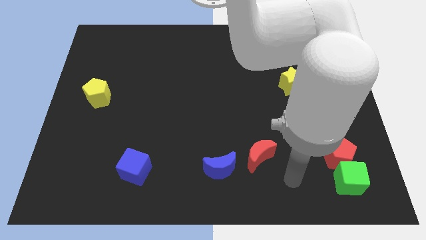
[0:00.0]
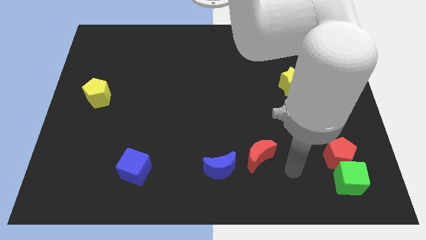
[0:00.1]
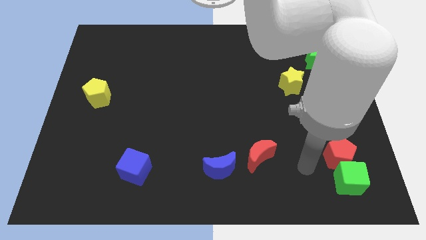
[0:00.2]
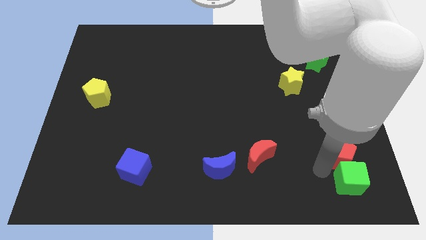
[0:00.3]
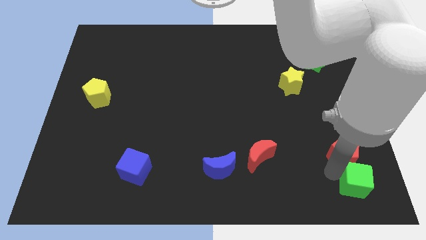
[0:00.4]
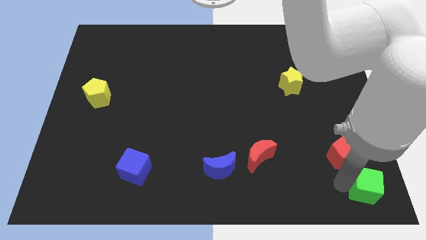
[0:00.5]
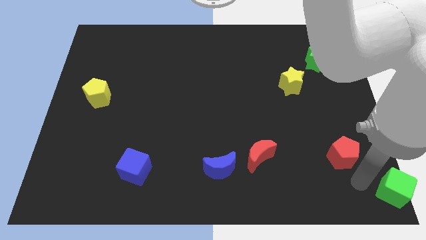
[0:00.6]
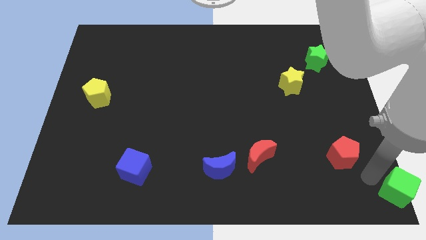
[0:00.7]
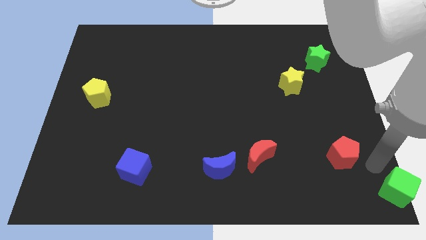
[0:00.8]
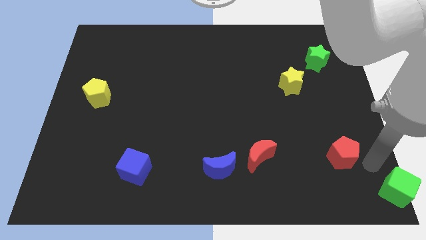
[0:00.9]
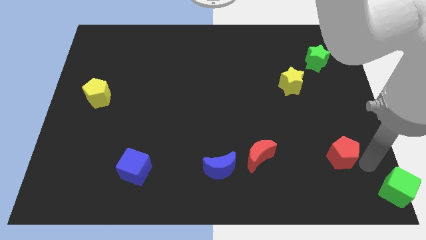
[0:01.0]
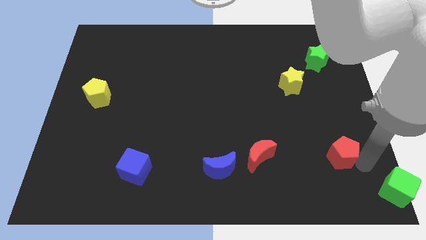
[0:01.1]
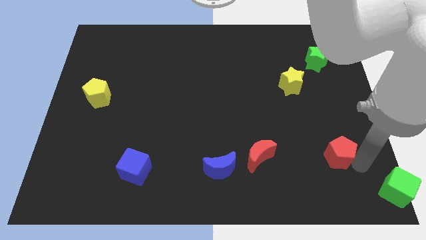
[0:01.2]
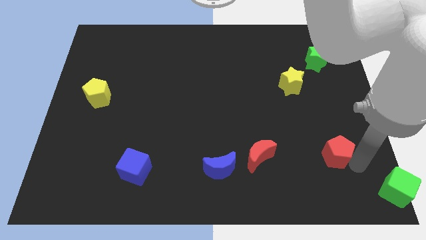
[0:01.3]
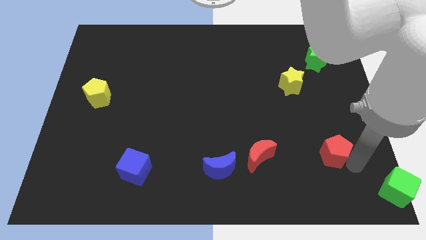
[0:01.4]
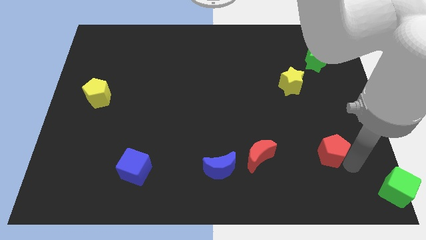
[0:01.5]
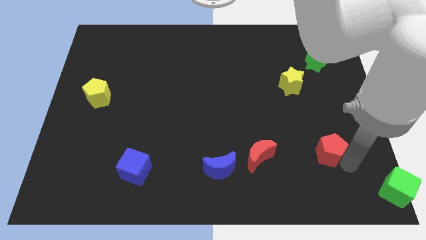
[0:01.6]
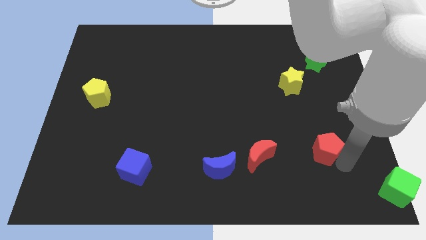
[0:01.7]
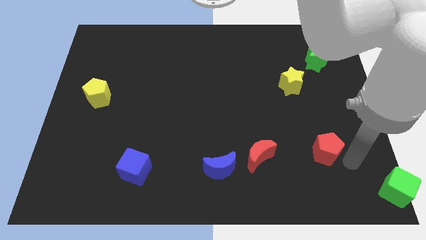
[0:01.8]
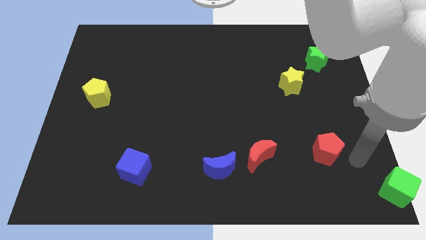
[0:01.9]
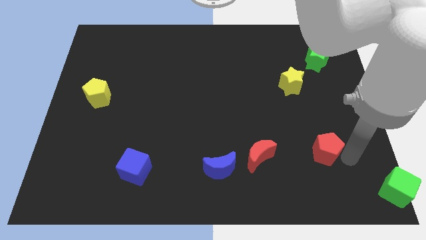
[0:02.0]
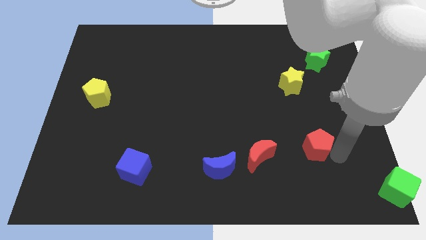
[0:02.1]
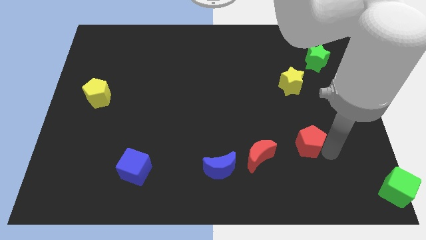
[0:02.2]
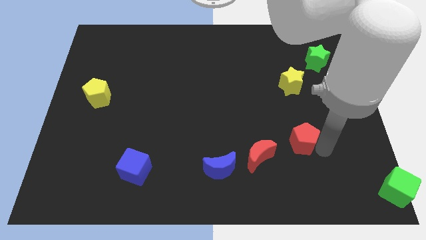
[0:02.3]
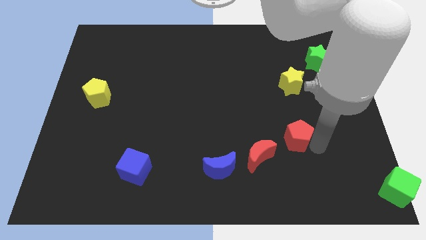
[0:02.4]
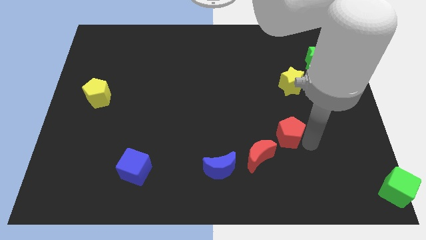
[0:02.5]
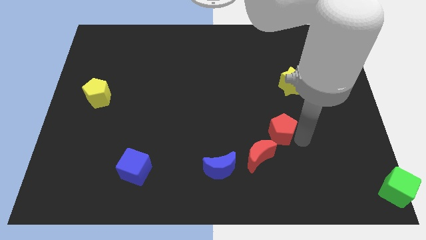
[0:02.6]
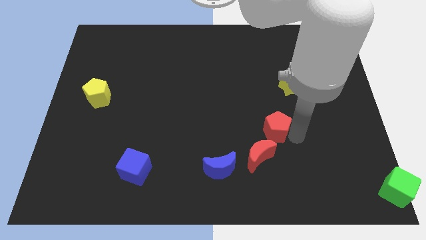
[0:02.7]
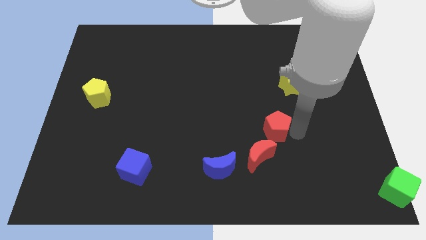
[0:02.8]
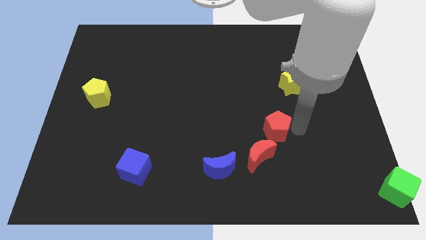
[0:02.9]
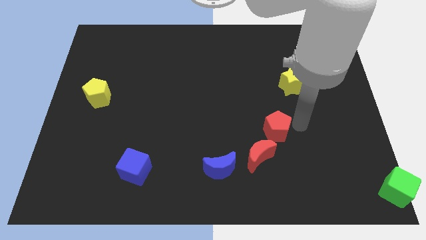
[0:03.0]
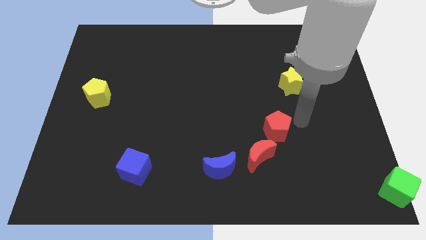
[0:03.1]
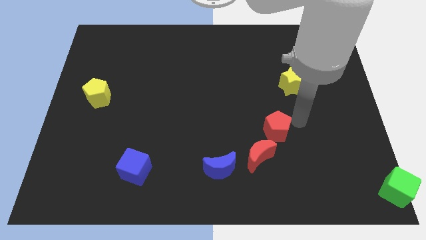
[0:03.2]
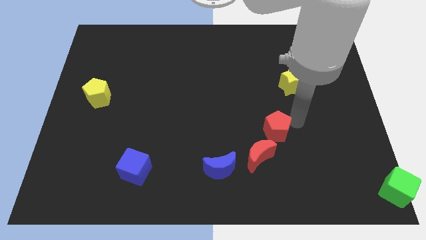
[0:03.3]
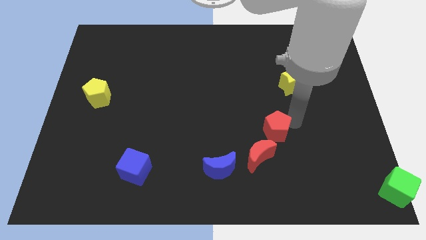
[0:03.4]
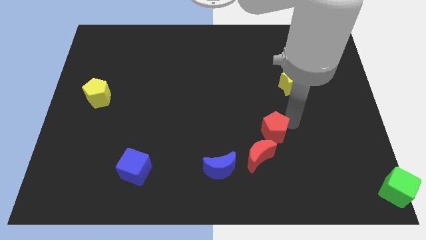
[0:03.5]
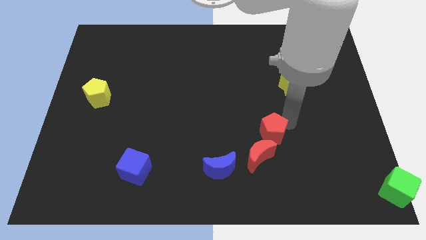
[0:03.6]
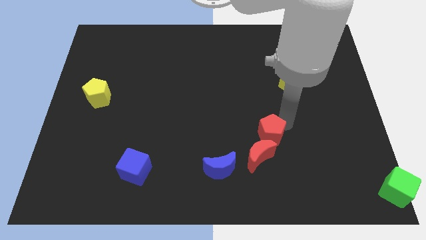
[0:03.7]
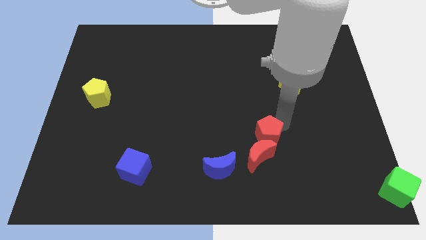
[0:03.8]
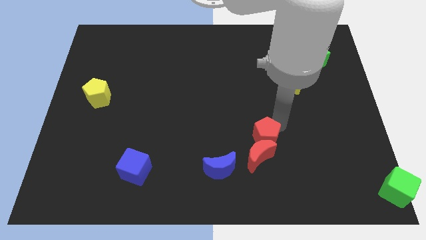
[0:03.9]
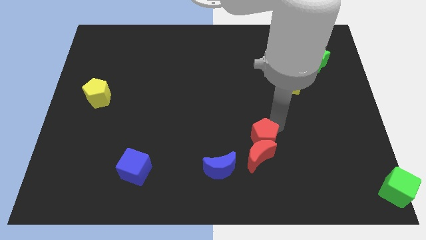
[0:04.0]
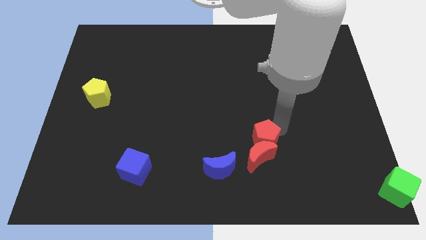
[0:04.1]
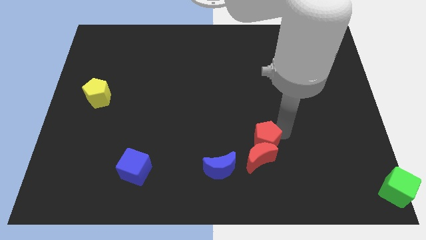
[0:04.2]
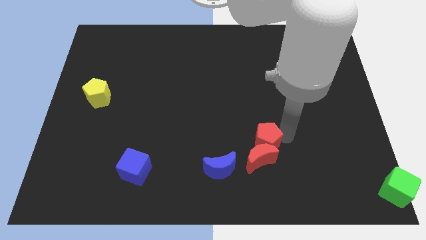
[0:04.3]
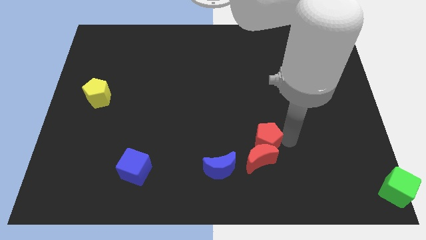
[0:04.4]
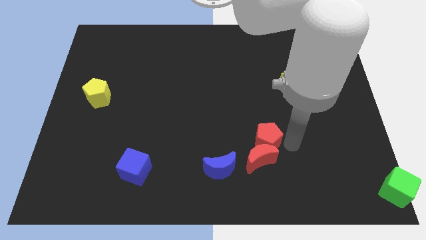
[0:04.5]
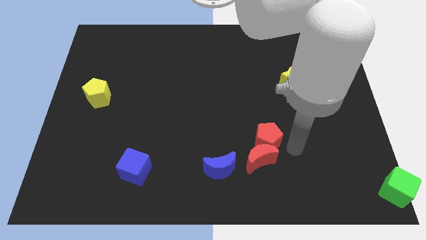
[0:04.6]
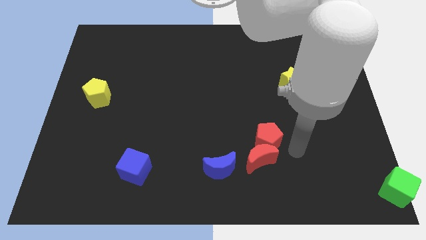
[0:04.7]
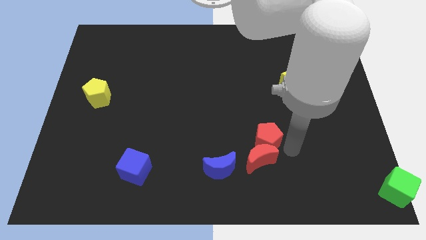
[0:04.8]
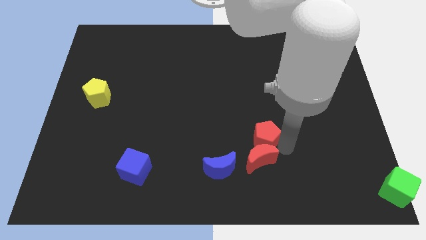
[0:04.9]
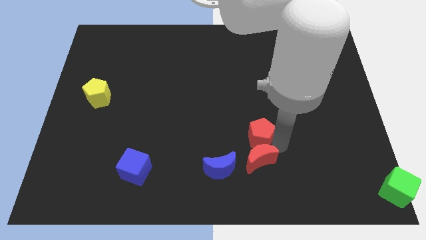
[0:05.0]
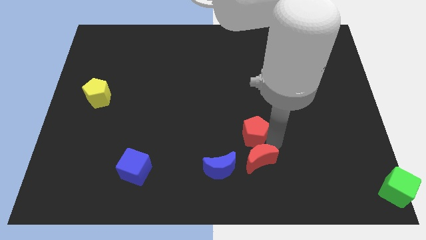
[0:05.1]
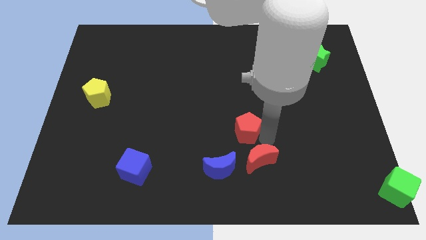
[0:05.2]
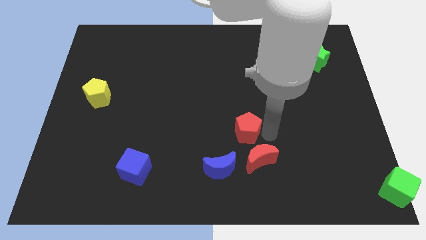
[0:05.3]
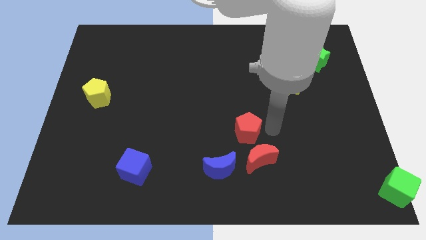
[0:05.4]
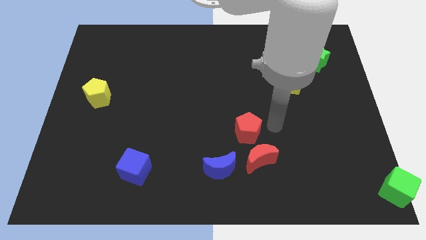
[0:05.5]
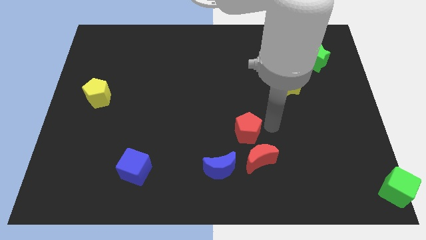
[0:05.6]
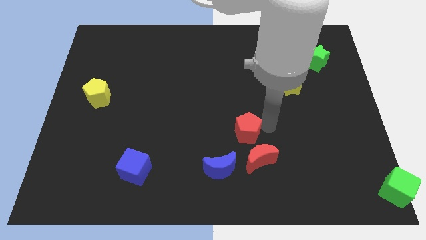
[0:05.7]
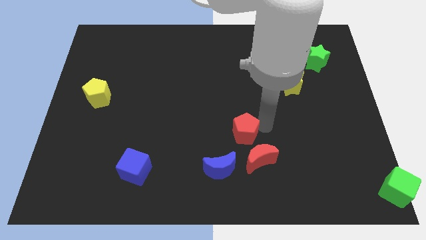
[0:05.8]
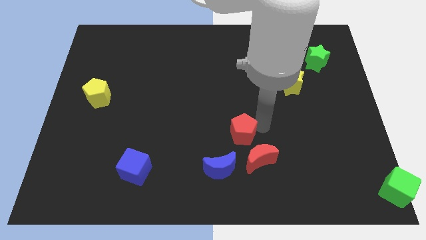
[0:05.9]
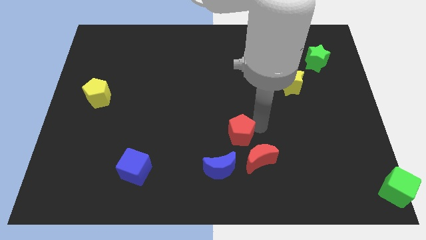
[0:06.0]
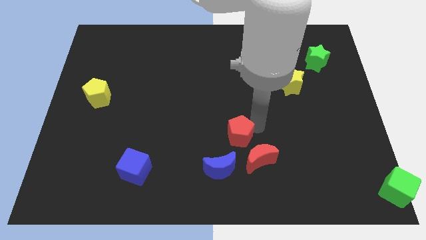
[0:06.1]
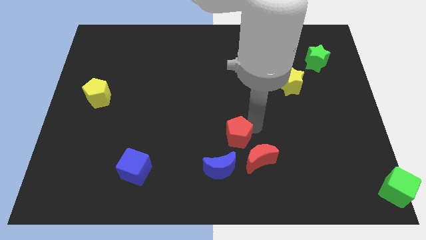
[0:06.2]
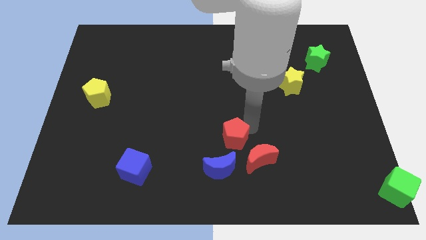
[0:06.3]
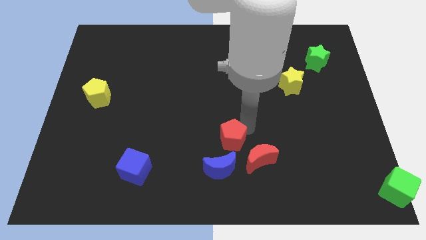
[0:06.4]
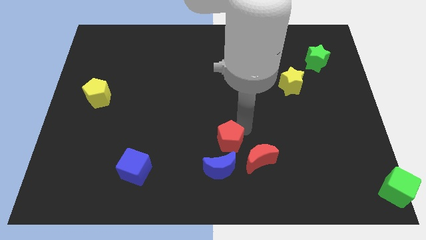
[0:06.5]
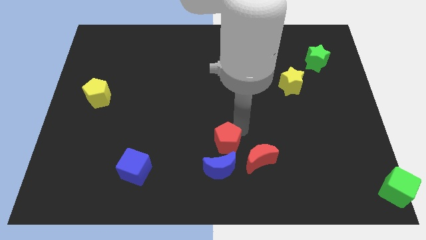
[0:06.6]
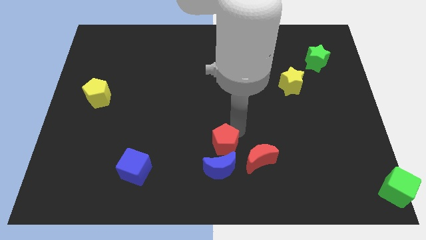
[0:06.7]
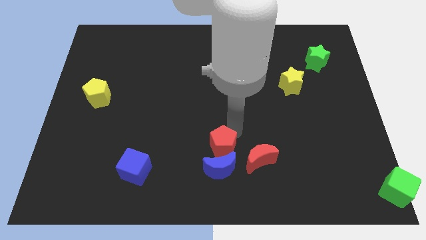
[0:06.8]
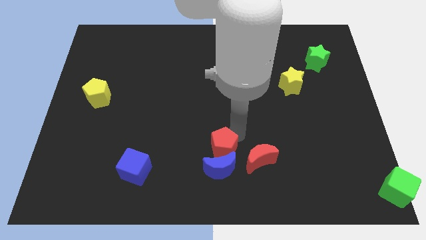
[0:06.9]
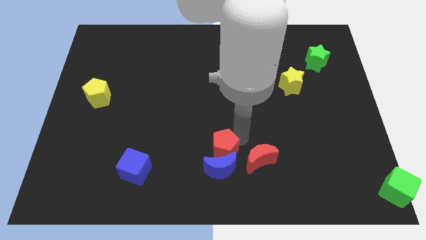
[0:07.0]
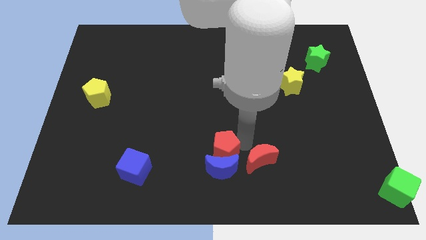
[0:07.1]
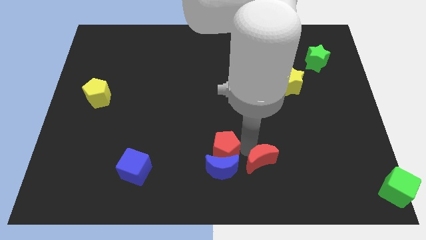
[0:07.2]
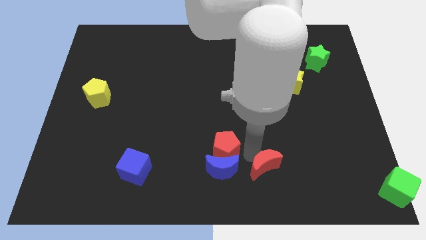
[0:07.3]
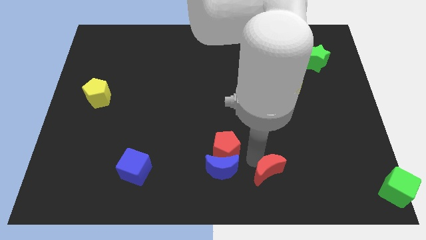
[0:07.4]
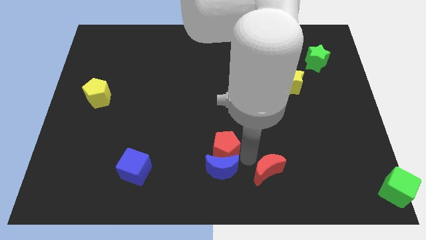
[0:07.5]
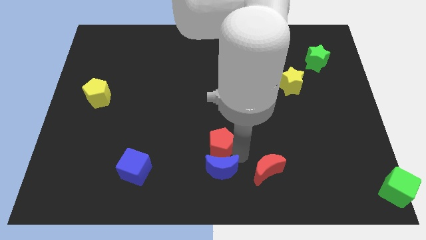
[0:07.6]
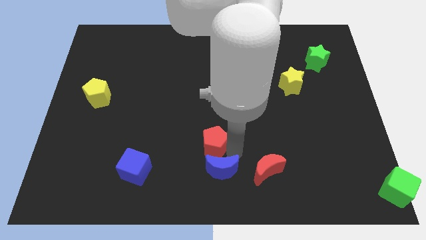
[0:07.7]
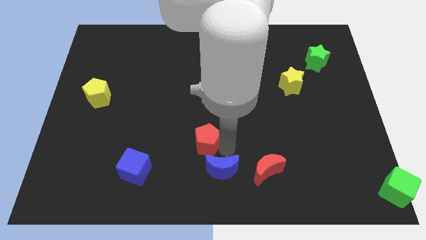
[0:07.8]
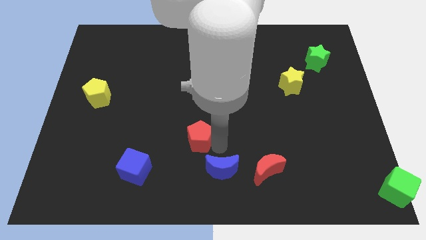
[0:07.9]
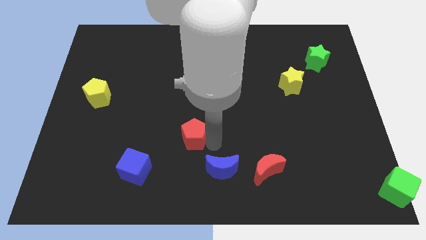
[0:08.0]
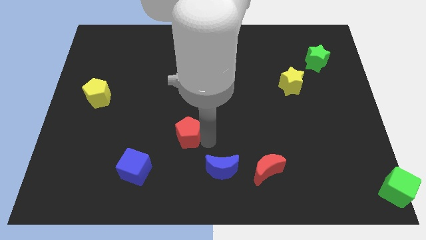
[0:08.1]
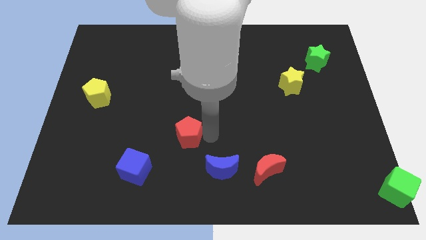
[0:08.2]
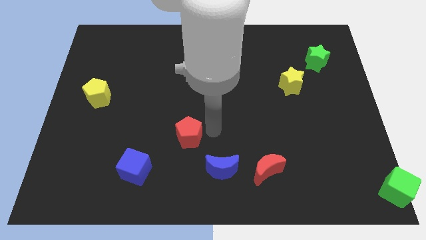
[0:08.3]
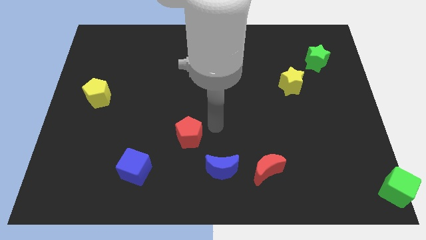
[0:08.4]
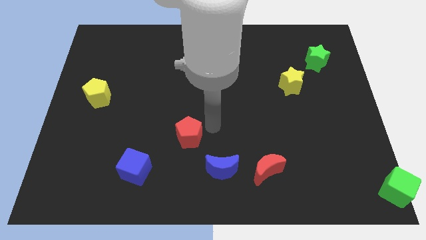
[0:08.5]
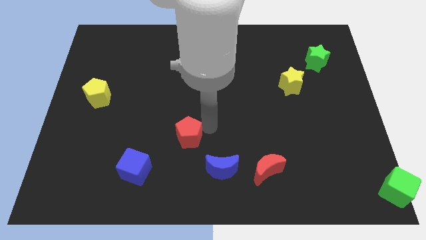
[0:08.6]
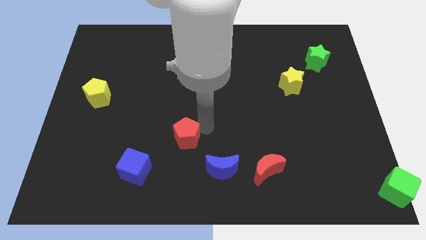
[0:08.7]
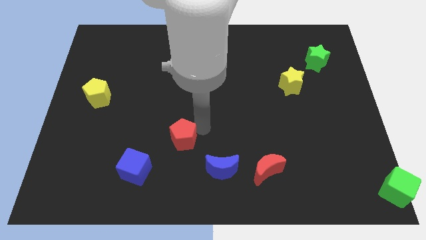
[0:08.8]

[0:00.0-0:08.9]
put the red pentagon to the top right side of the blue cube
